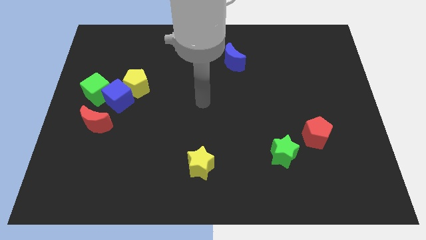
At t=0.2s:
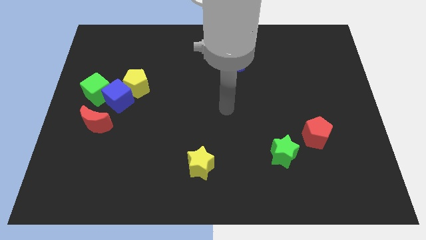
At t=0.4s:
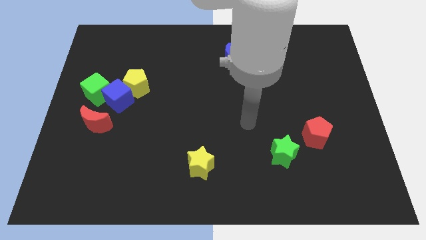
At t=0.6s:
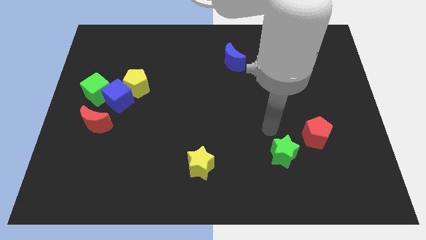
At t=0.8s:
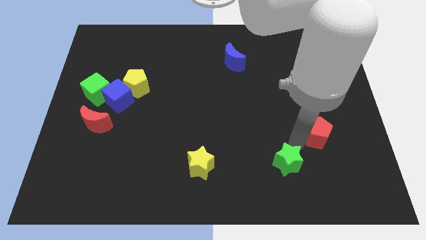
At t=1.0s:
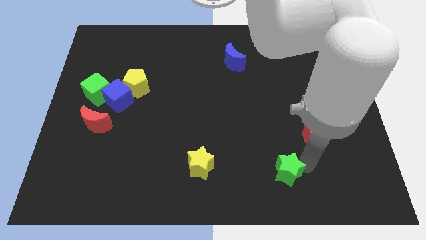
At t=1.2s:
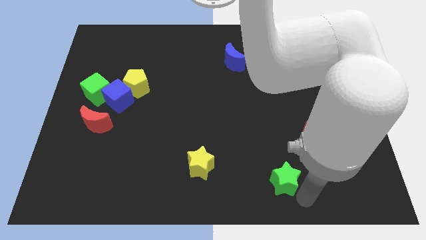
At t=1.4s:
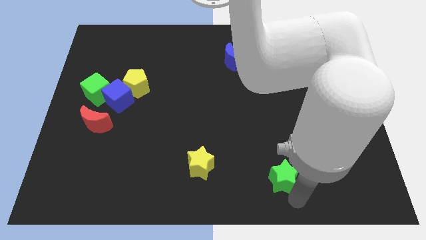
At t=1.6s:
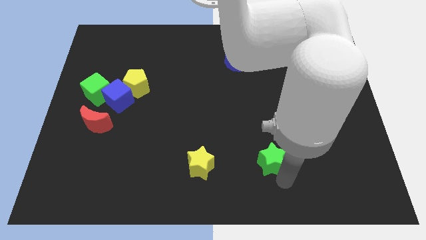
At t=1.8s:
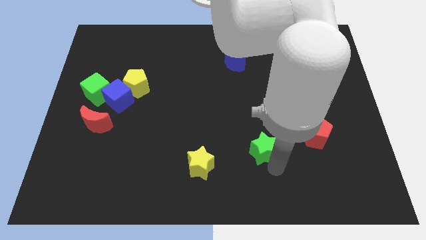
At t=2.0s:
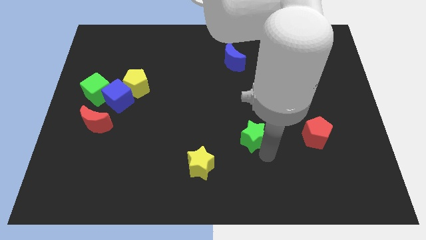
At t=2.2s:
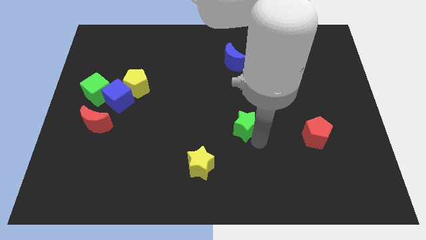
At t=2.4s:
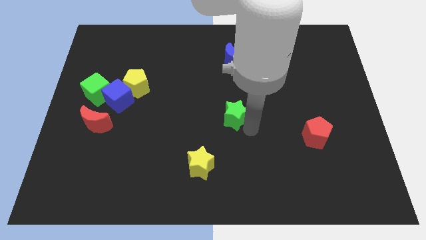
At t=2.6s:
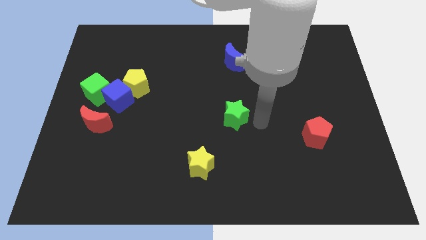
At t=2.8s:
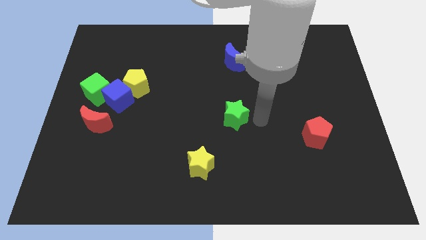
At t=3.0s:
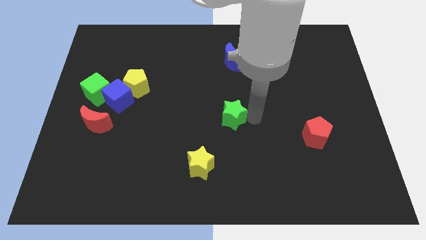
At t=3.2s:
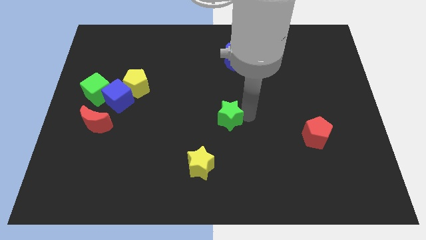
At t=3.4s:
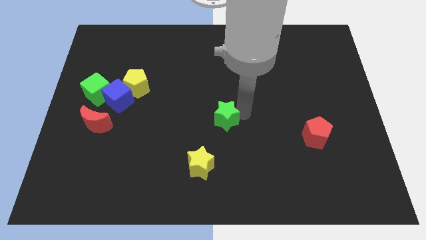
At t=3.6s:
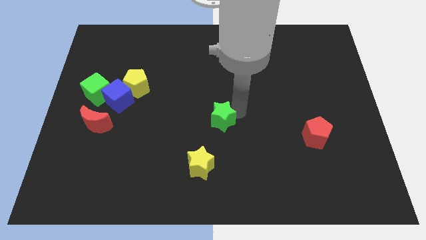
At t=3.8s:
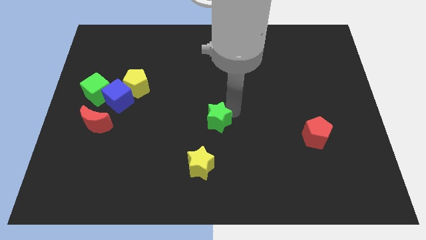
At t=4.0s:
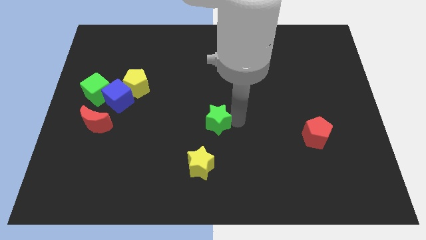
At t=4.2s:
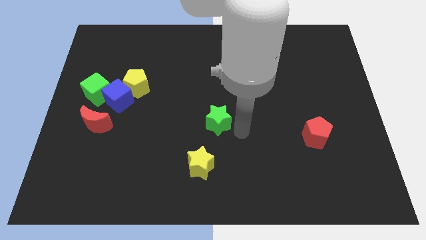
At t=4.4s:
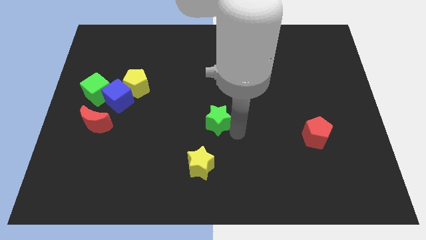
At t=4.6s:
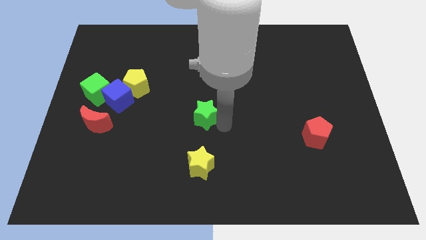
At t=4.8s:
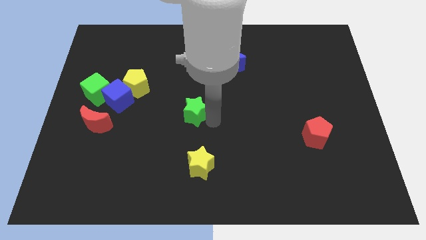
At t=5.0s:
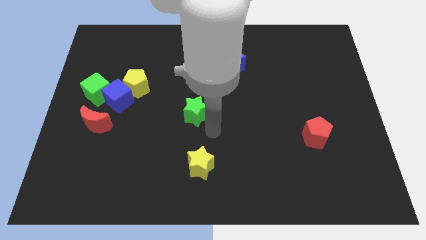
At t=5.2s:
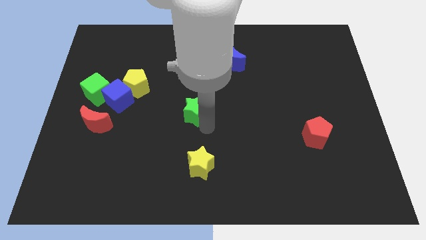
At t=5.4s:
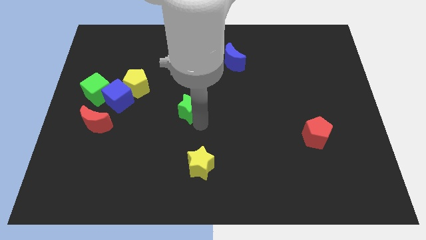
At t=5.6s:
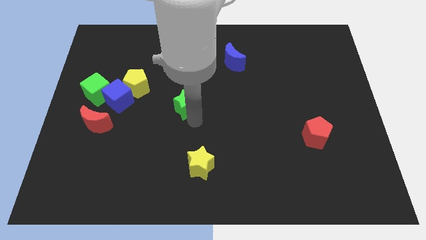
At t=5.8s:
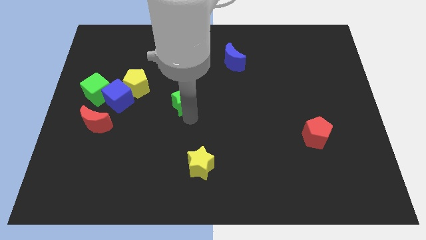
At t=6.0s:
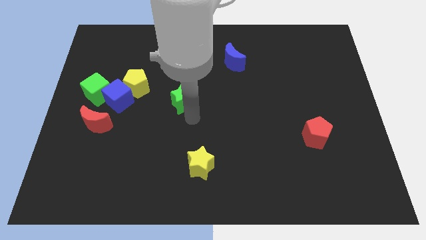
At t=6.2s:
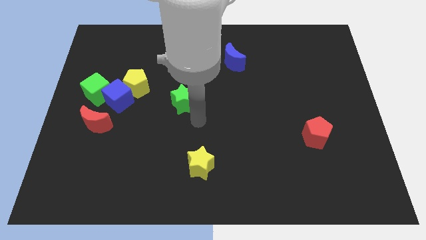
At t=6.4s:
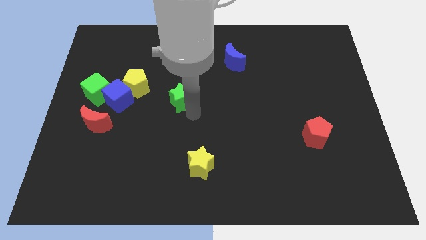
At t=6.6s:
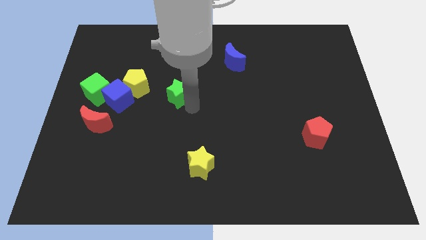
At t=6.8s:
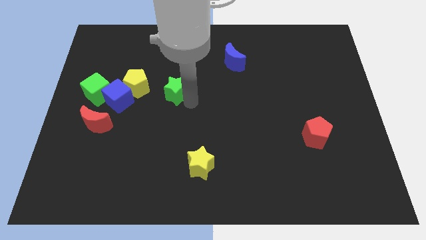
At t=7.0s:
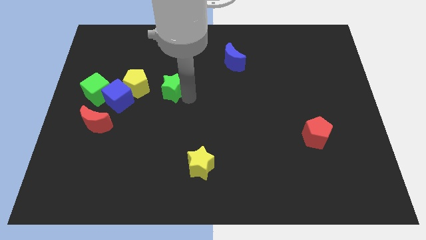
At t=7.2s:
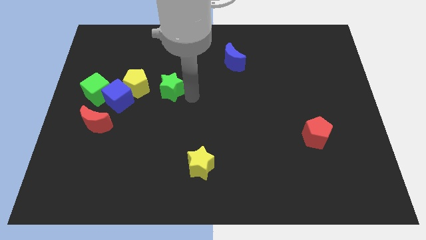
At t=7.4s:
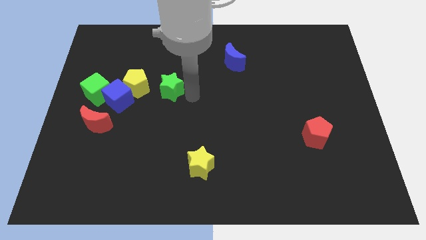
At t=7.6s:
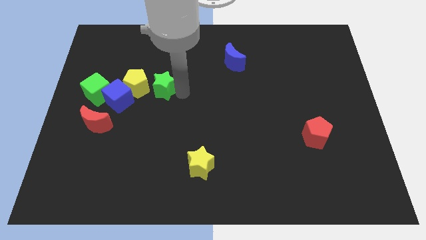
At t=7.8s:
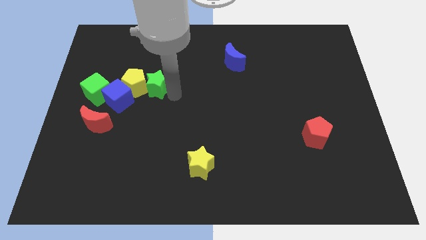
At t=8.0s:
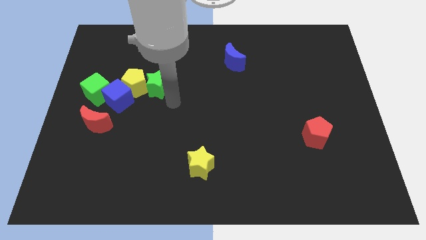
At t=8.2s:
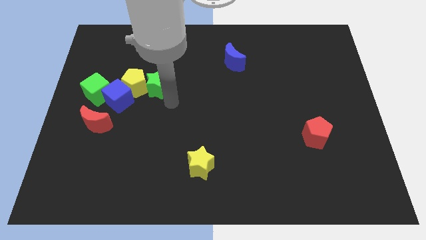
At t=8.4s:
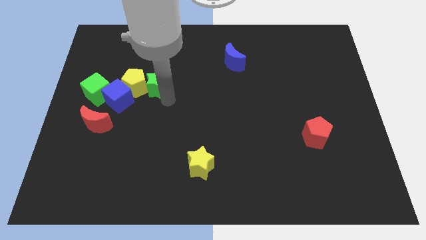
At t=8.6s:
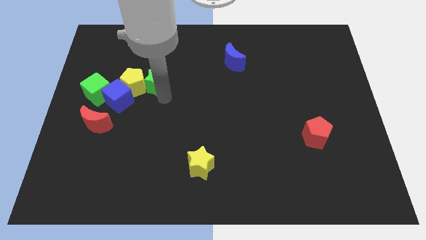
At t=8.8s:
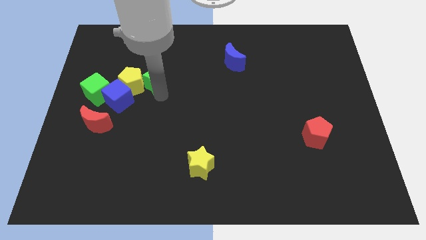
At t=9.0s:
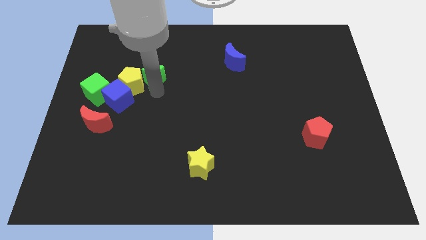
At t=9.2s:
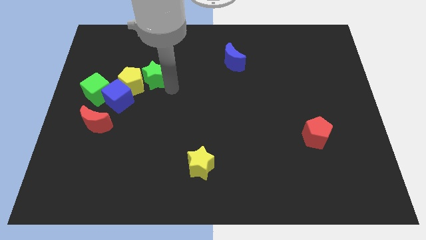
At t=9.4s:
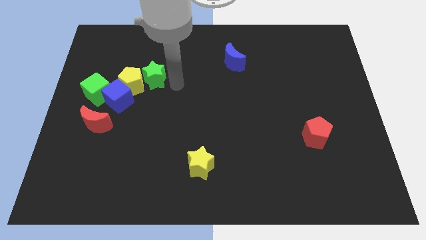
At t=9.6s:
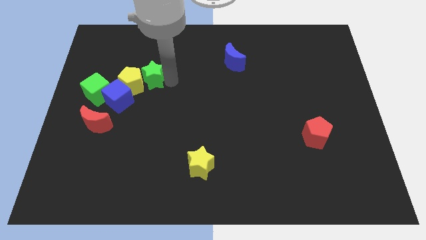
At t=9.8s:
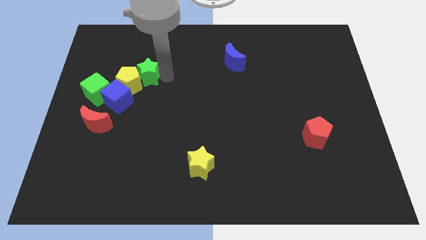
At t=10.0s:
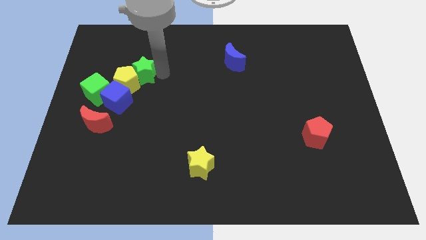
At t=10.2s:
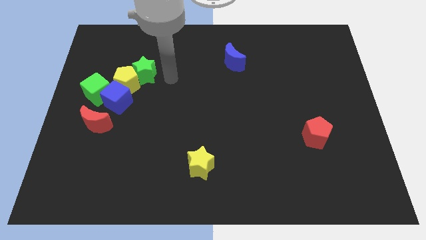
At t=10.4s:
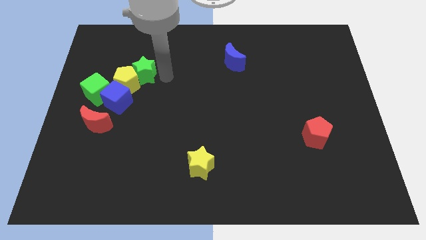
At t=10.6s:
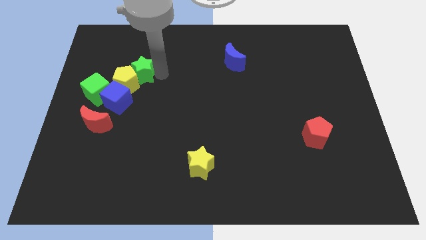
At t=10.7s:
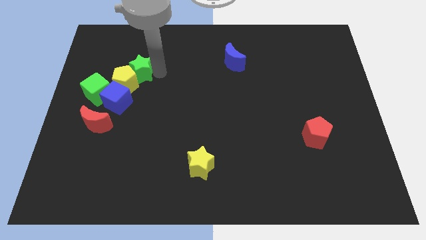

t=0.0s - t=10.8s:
push the green star to the top of the blue cube

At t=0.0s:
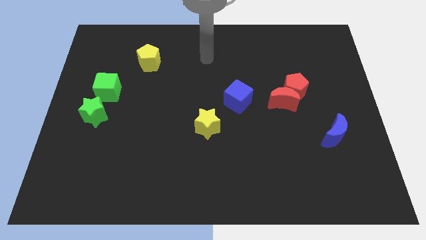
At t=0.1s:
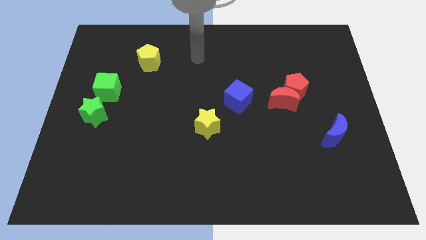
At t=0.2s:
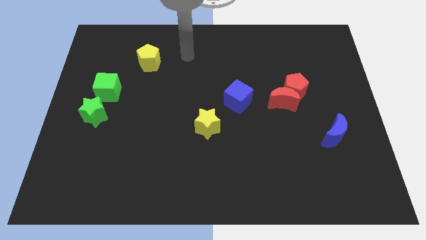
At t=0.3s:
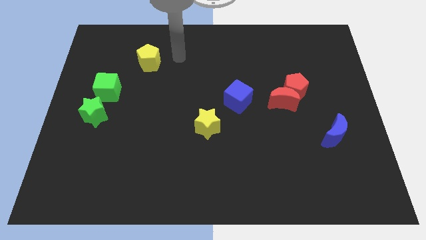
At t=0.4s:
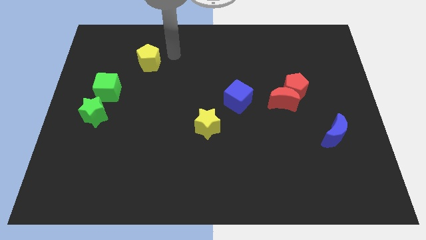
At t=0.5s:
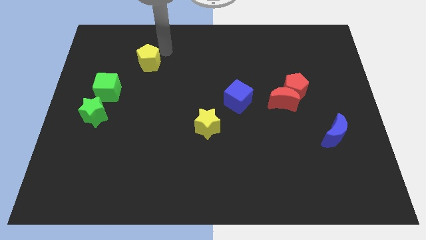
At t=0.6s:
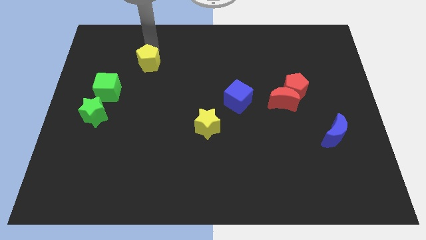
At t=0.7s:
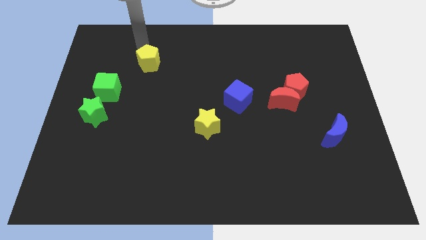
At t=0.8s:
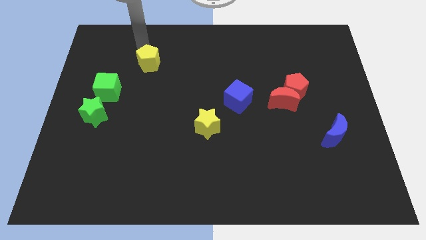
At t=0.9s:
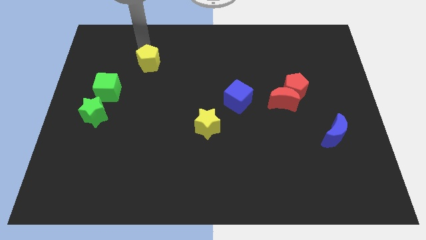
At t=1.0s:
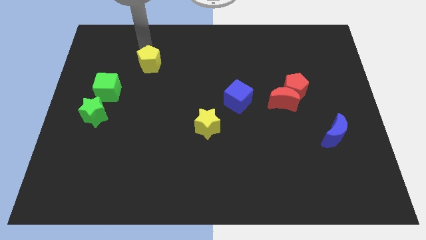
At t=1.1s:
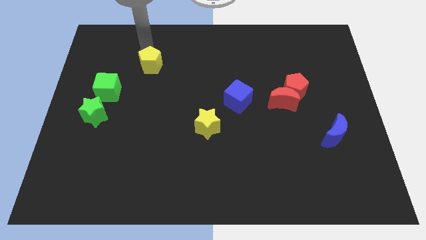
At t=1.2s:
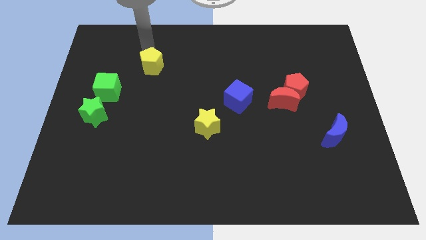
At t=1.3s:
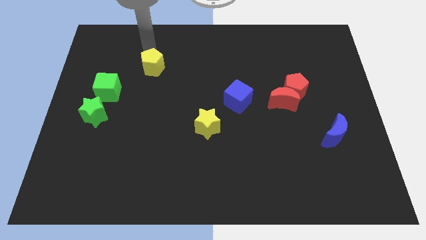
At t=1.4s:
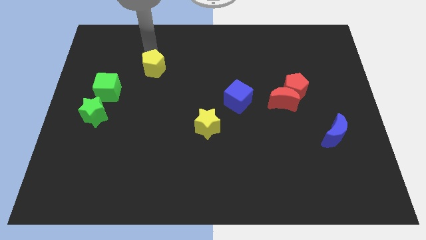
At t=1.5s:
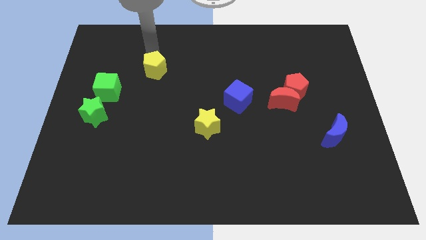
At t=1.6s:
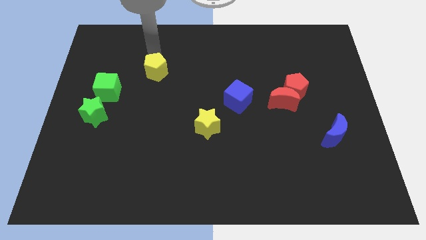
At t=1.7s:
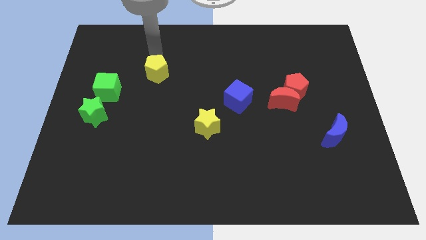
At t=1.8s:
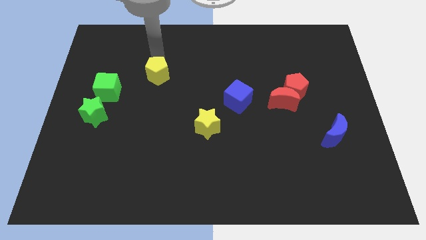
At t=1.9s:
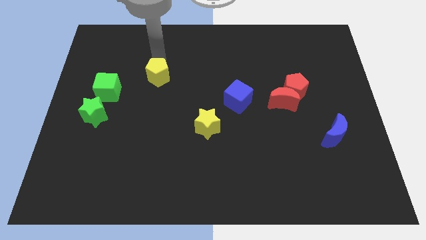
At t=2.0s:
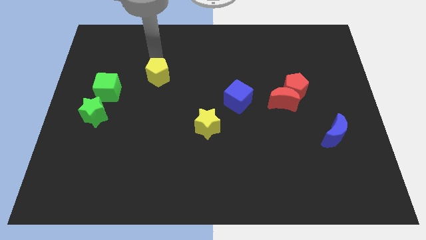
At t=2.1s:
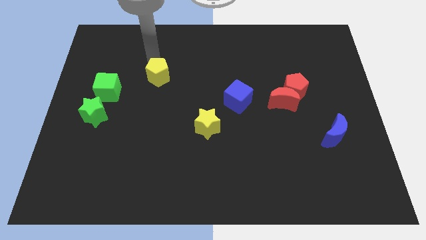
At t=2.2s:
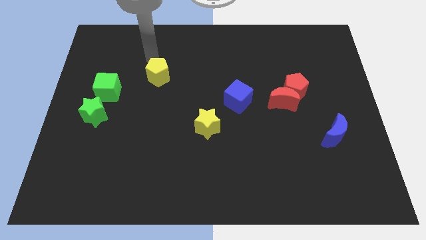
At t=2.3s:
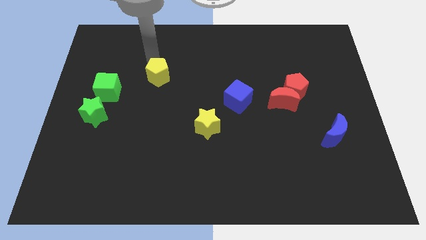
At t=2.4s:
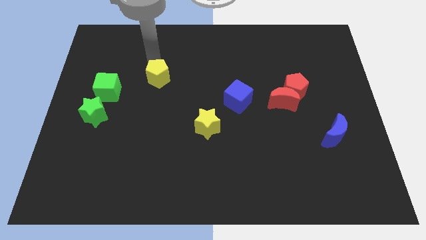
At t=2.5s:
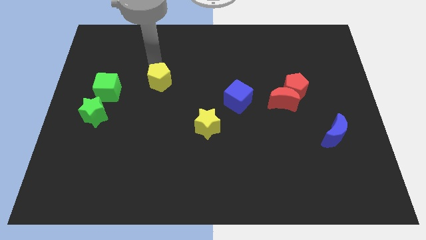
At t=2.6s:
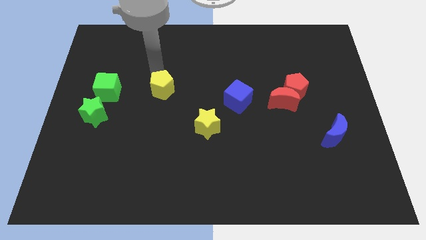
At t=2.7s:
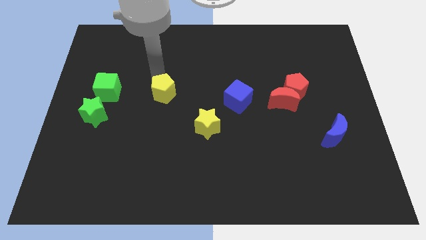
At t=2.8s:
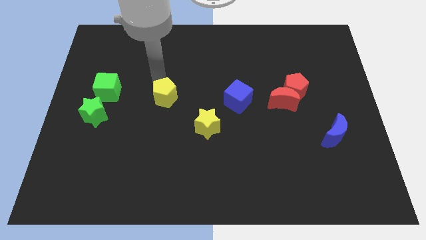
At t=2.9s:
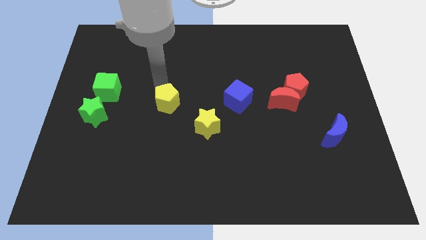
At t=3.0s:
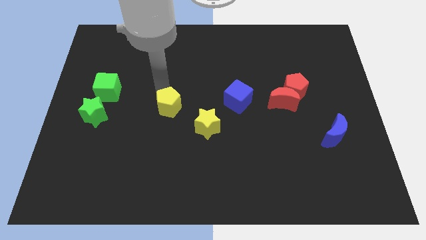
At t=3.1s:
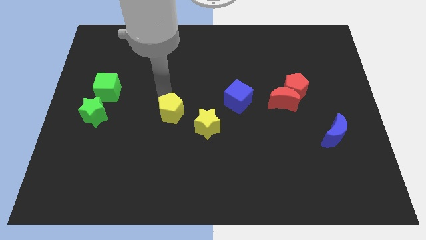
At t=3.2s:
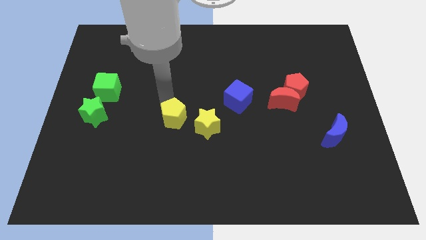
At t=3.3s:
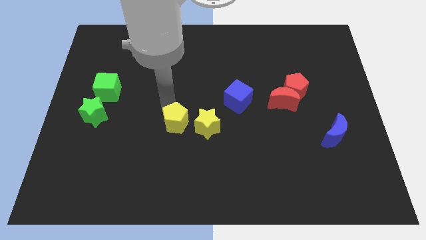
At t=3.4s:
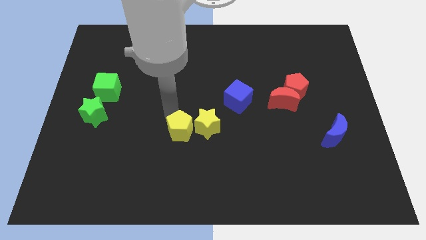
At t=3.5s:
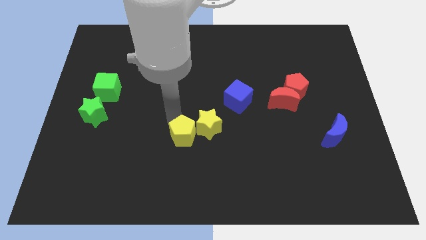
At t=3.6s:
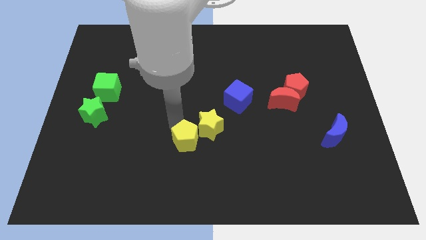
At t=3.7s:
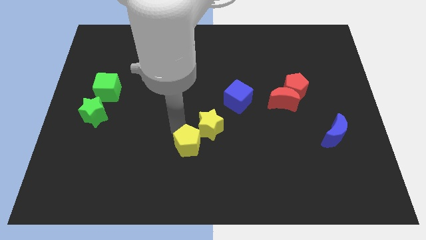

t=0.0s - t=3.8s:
push the yellow pentagon to the bottom side of the yellow star
